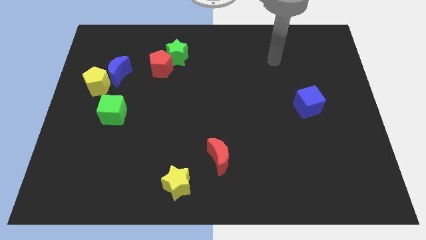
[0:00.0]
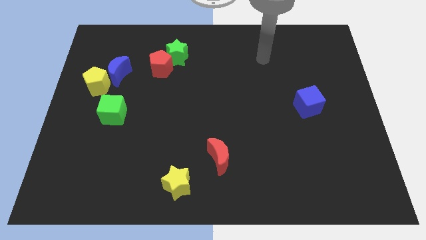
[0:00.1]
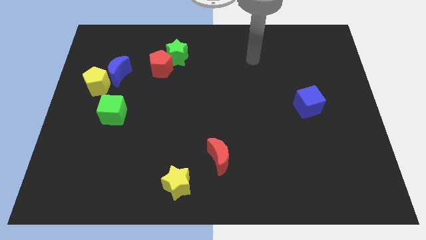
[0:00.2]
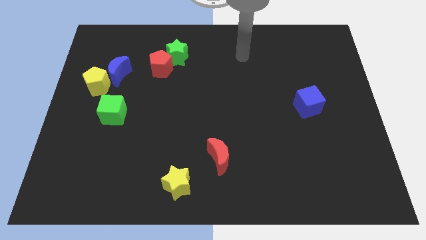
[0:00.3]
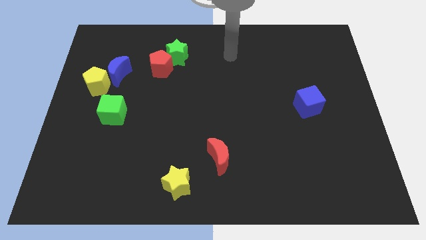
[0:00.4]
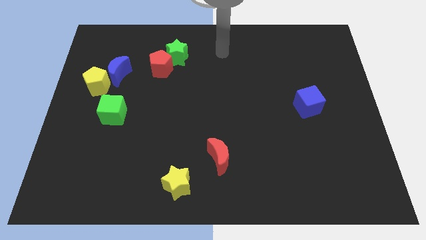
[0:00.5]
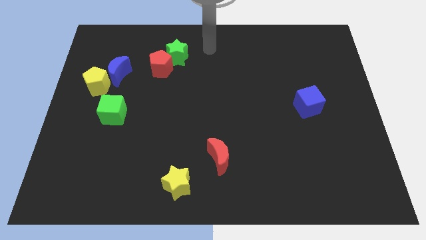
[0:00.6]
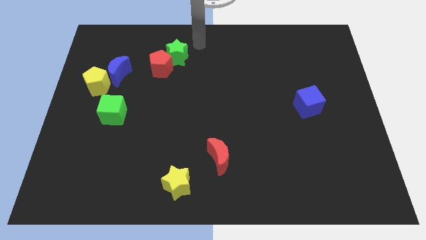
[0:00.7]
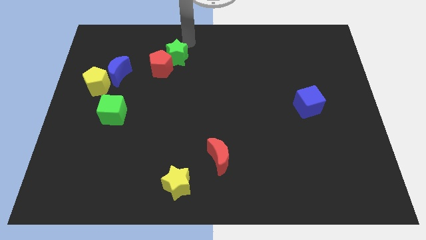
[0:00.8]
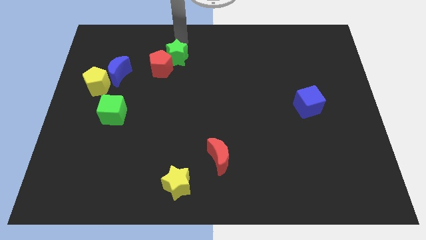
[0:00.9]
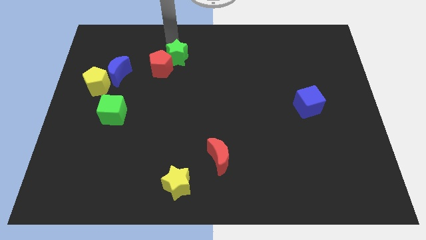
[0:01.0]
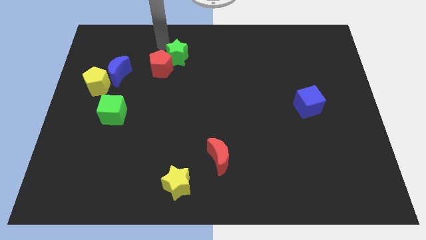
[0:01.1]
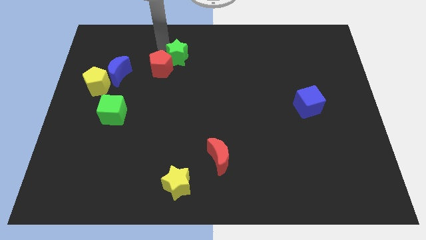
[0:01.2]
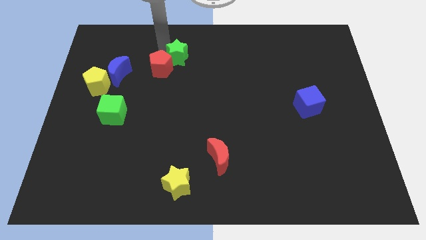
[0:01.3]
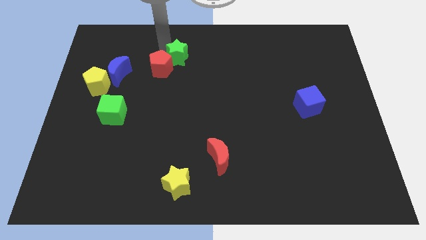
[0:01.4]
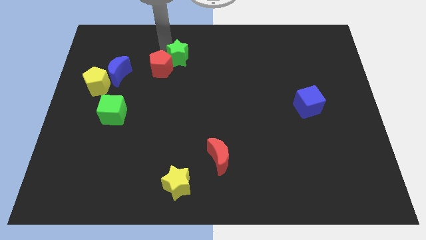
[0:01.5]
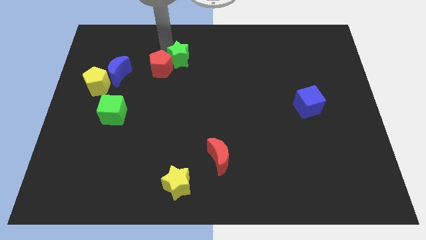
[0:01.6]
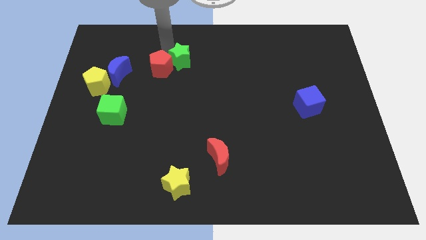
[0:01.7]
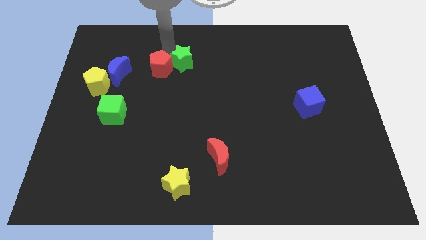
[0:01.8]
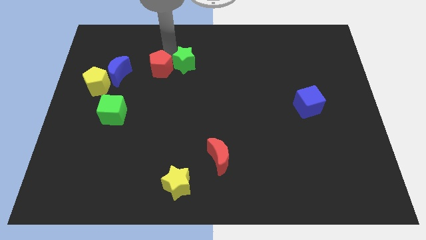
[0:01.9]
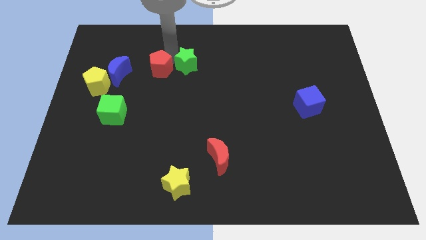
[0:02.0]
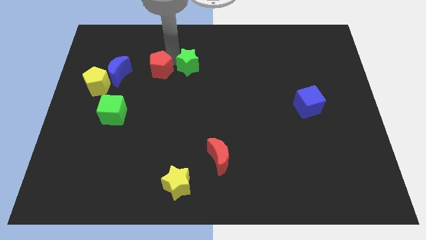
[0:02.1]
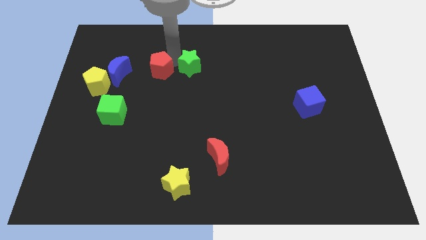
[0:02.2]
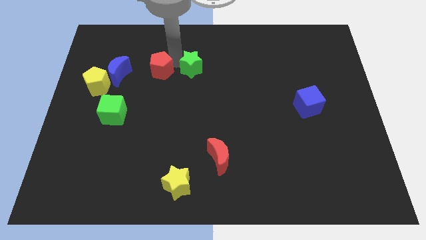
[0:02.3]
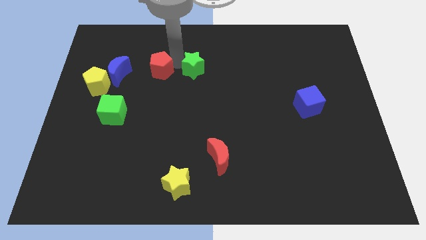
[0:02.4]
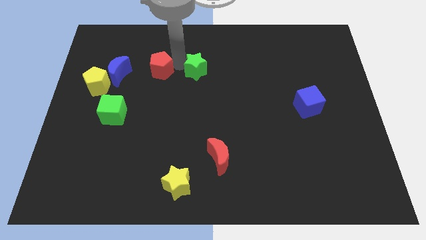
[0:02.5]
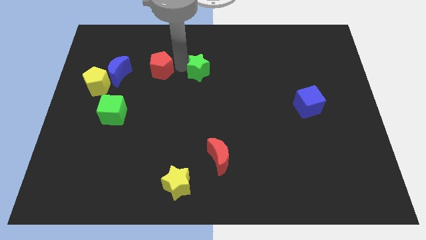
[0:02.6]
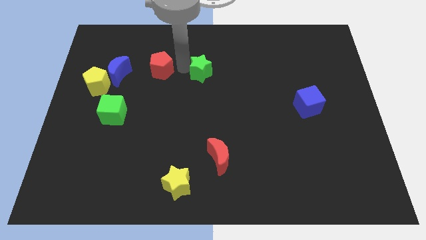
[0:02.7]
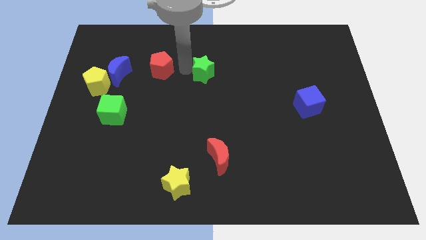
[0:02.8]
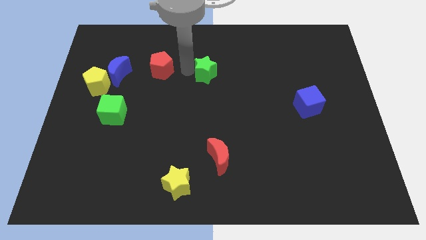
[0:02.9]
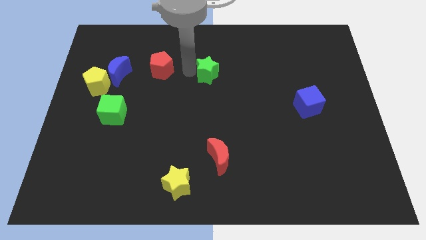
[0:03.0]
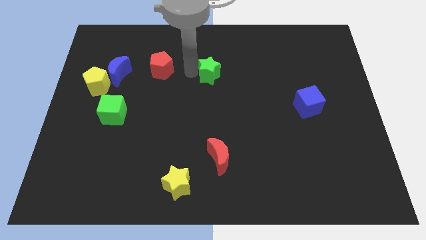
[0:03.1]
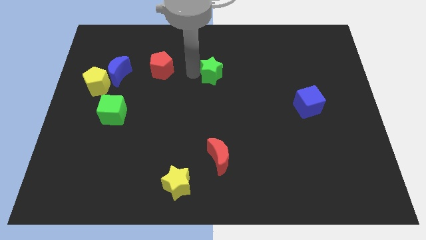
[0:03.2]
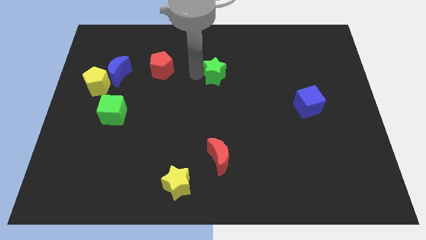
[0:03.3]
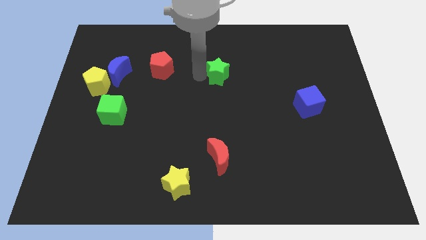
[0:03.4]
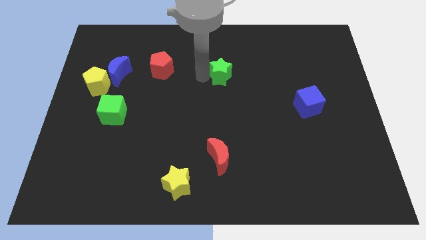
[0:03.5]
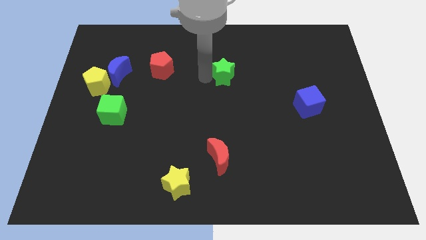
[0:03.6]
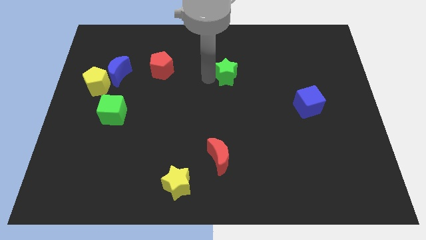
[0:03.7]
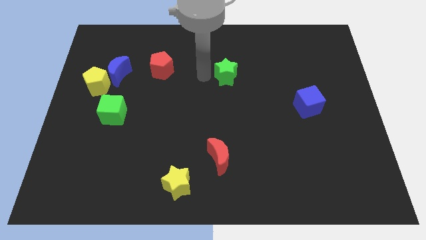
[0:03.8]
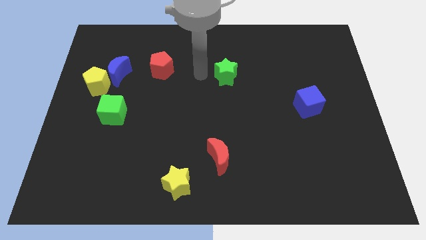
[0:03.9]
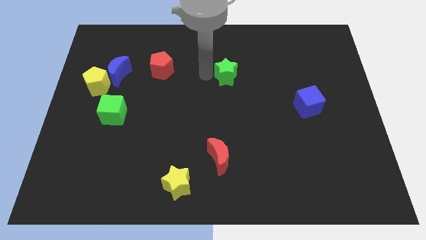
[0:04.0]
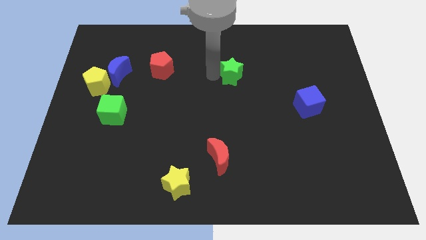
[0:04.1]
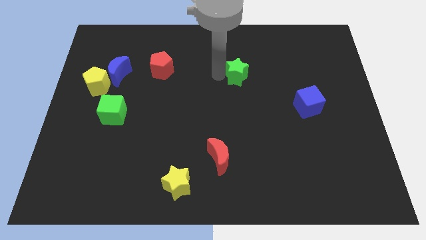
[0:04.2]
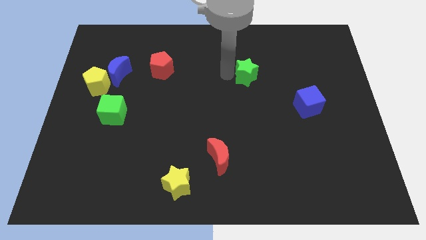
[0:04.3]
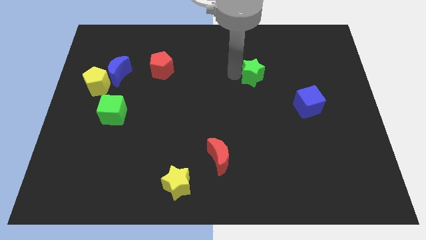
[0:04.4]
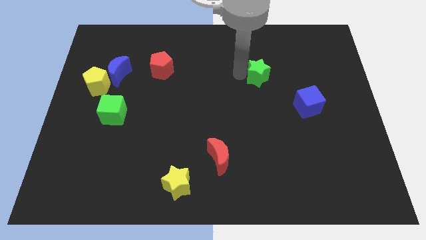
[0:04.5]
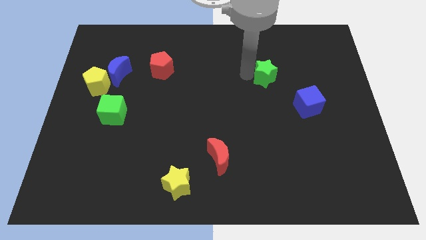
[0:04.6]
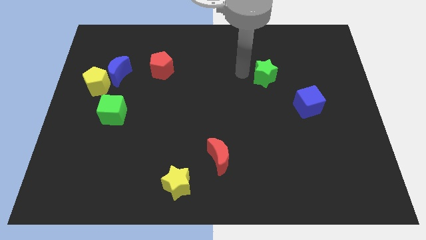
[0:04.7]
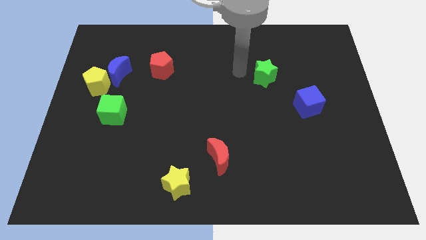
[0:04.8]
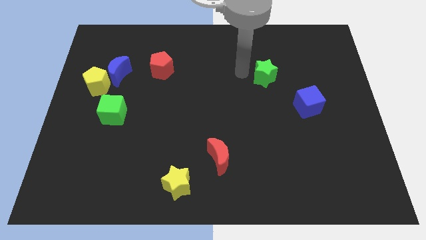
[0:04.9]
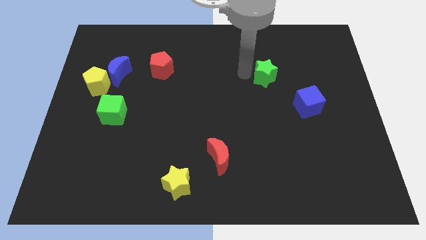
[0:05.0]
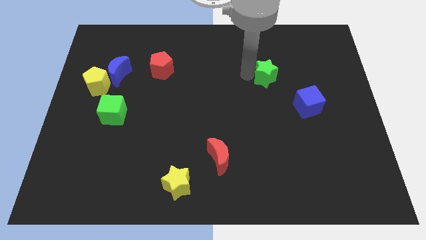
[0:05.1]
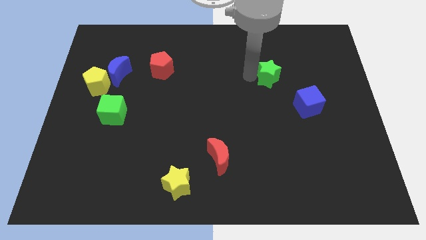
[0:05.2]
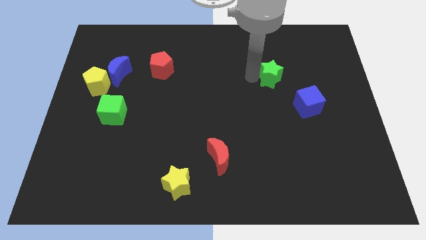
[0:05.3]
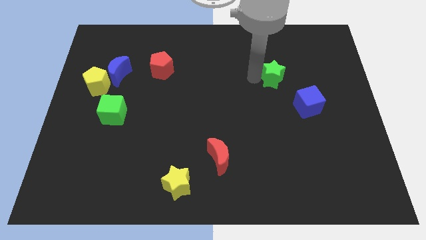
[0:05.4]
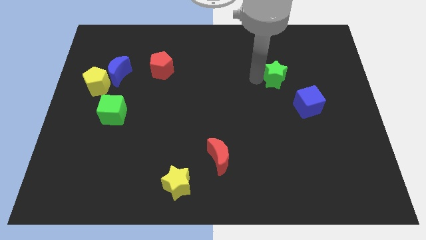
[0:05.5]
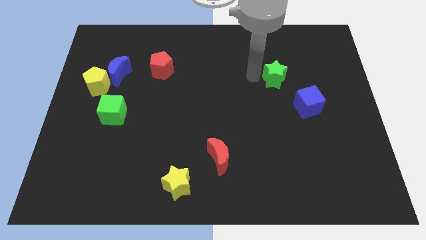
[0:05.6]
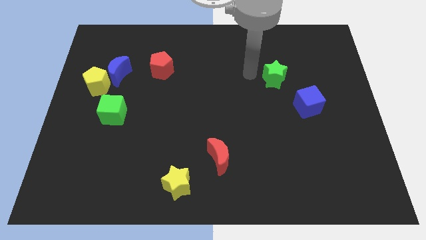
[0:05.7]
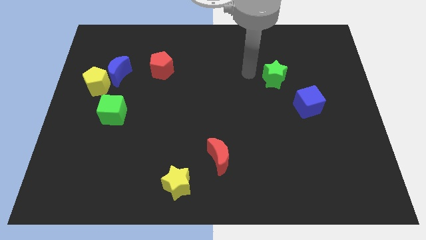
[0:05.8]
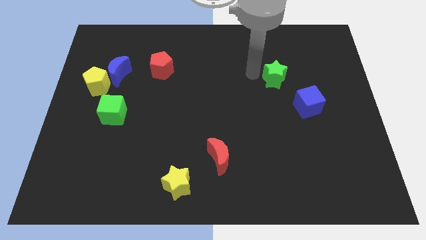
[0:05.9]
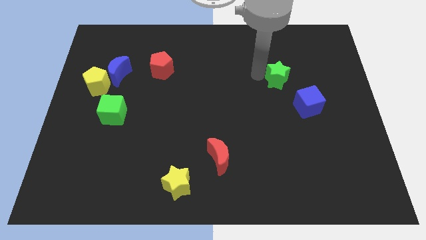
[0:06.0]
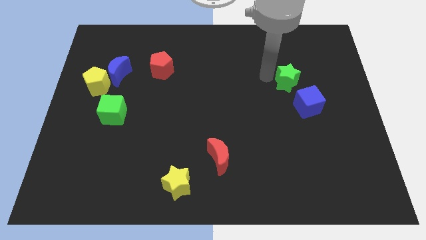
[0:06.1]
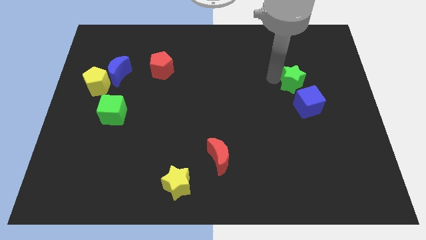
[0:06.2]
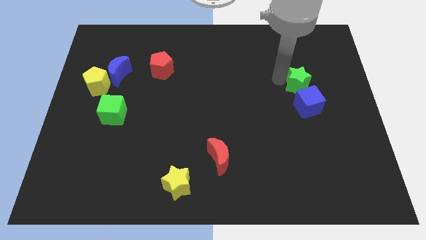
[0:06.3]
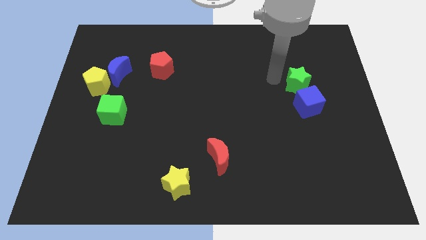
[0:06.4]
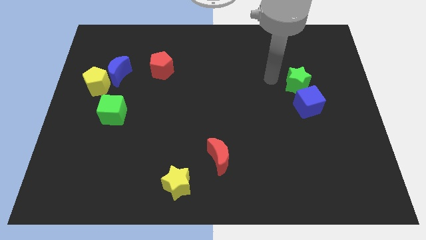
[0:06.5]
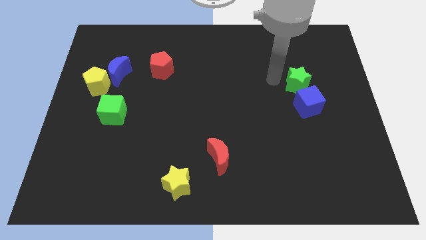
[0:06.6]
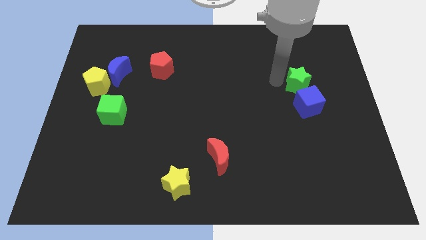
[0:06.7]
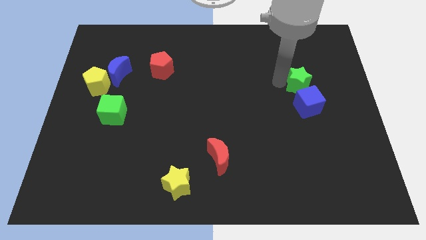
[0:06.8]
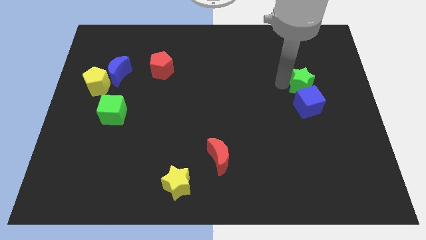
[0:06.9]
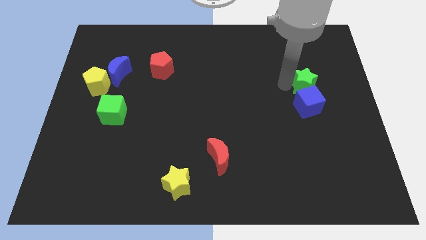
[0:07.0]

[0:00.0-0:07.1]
put the green star to the top right of the blue cube
